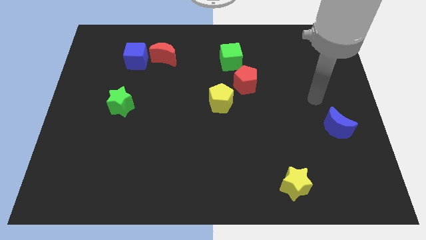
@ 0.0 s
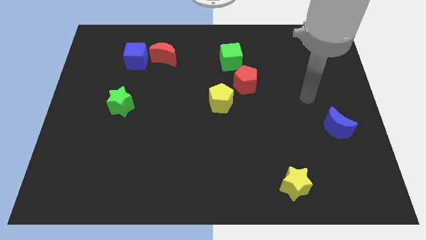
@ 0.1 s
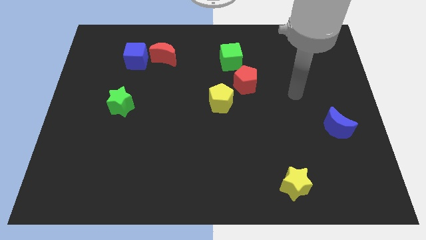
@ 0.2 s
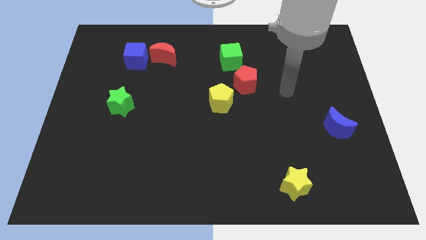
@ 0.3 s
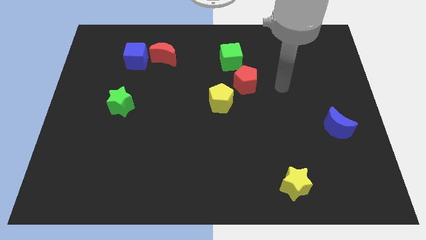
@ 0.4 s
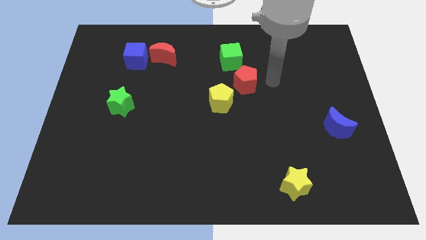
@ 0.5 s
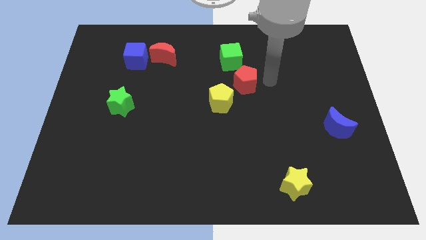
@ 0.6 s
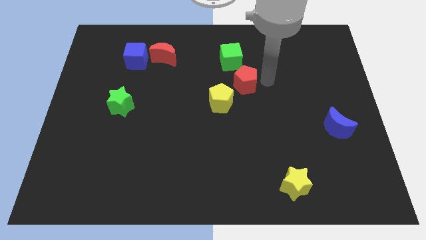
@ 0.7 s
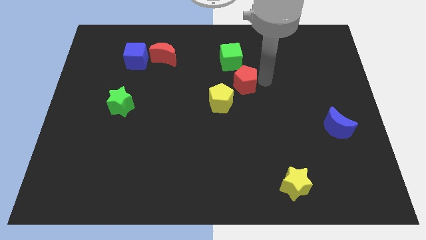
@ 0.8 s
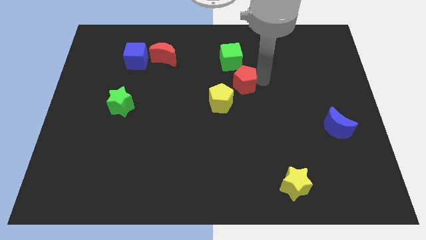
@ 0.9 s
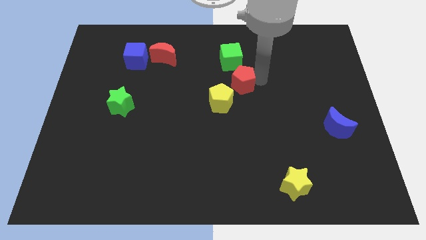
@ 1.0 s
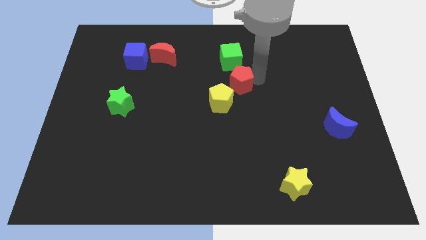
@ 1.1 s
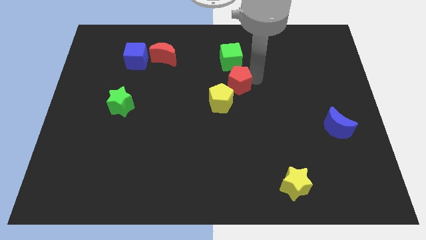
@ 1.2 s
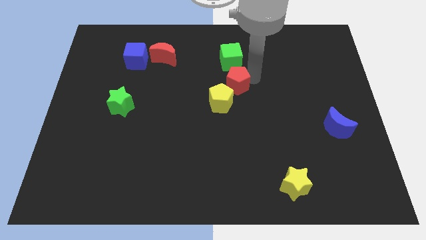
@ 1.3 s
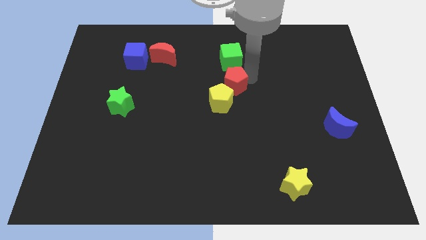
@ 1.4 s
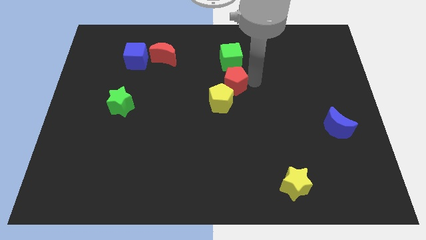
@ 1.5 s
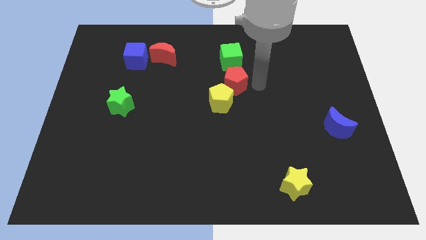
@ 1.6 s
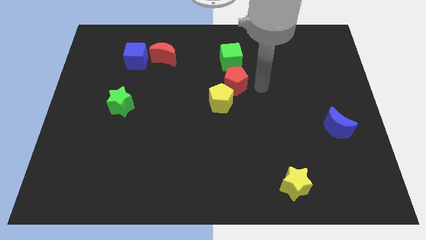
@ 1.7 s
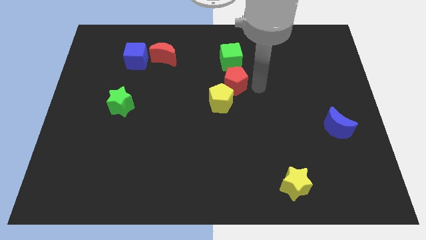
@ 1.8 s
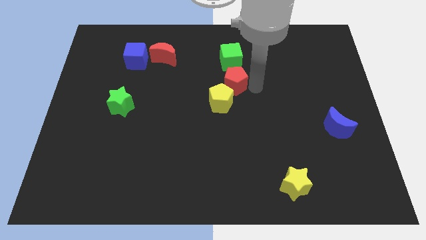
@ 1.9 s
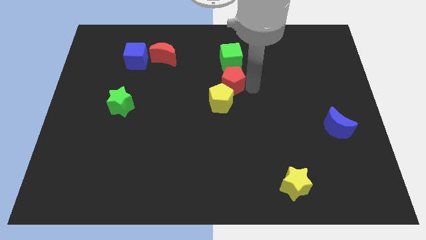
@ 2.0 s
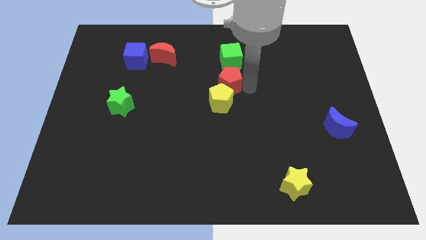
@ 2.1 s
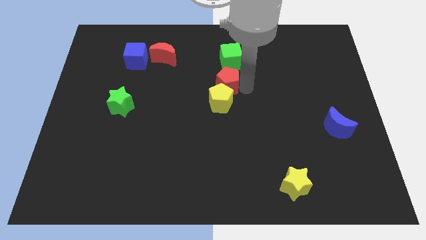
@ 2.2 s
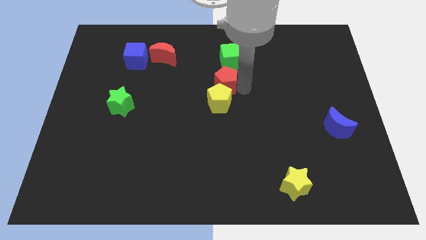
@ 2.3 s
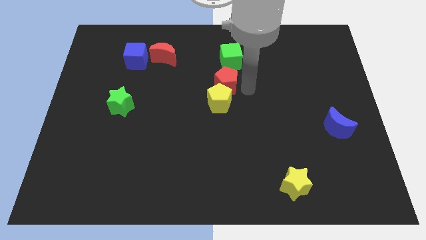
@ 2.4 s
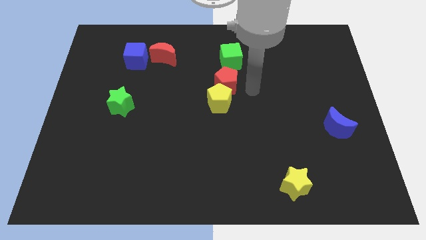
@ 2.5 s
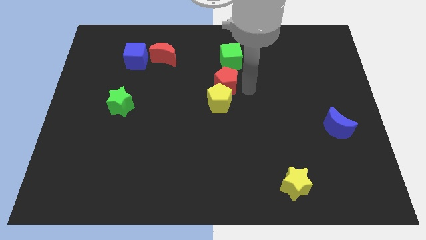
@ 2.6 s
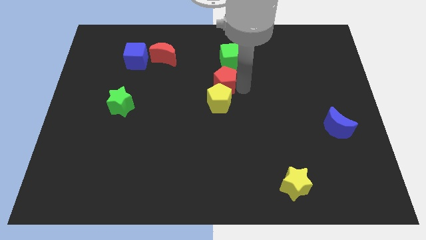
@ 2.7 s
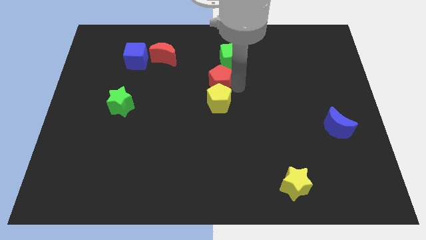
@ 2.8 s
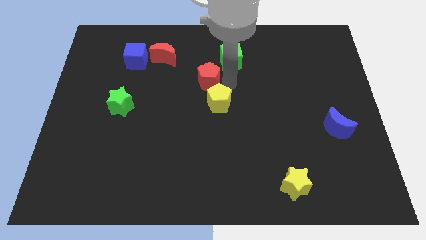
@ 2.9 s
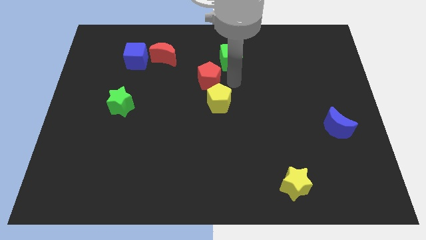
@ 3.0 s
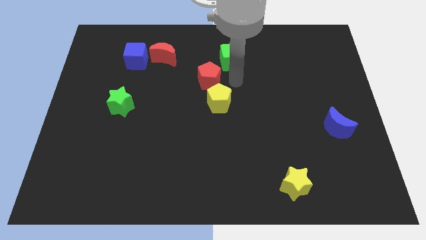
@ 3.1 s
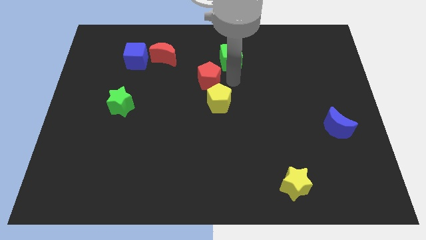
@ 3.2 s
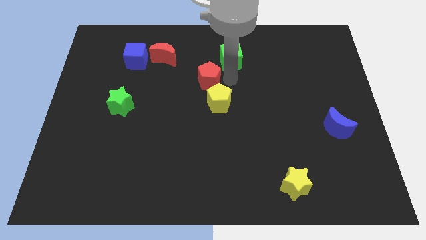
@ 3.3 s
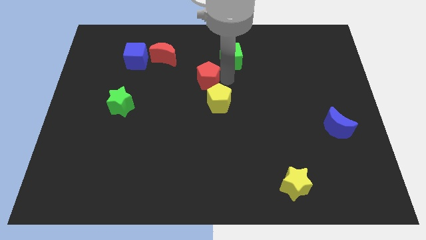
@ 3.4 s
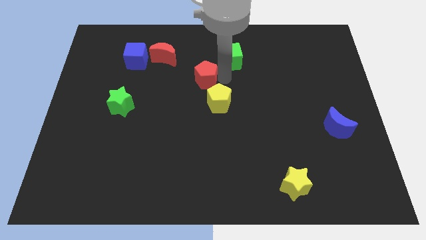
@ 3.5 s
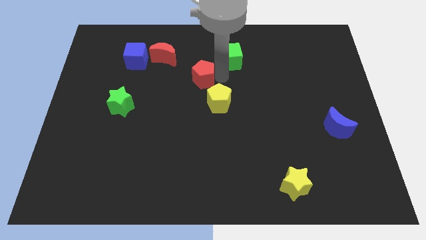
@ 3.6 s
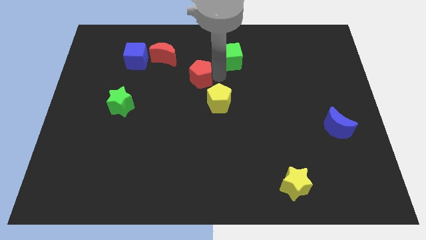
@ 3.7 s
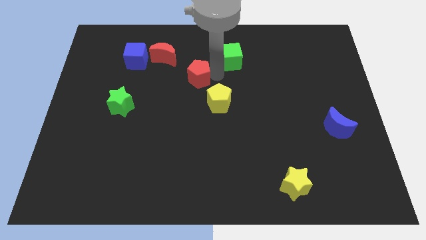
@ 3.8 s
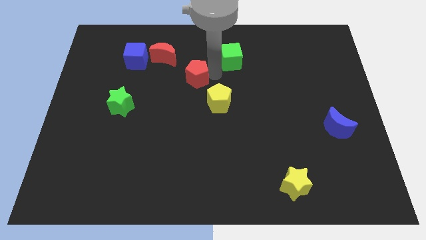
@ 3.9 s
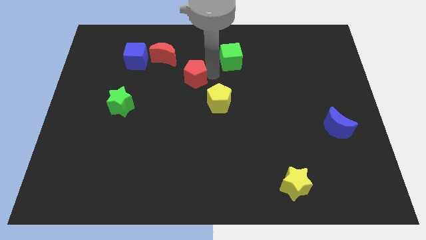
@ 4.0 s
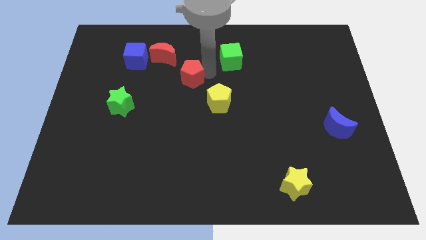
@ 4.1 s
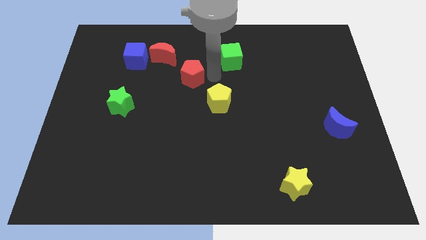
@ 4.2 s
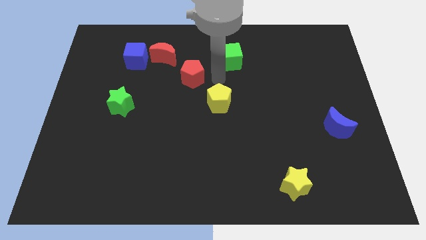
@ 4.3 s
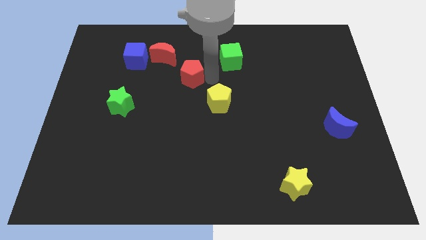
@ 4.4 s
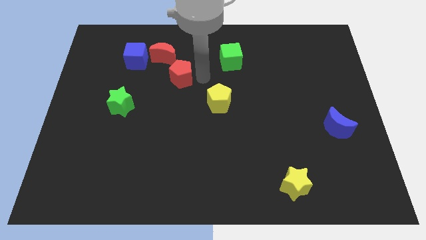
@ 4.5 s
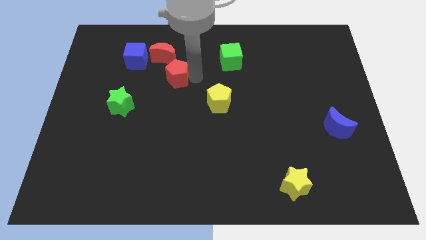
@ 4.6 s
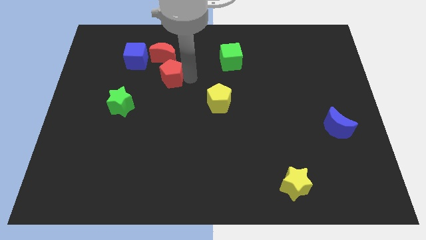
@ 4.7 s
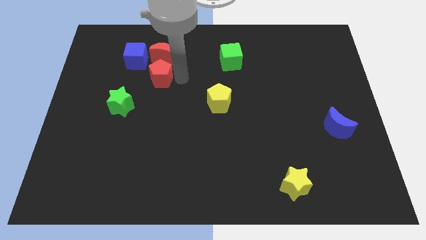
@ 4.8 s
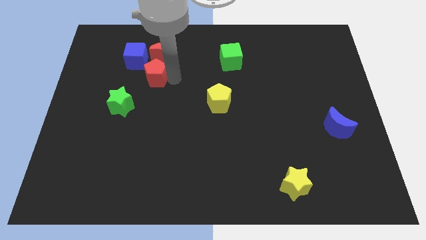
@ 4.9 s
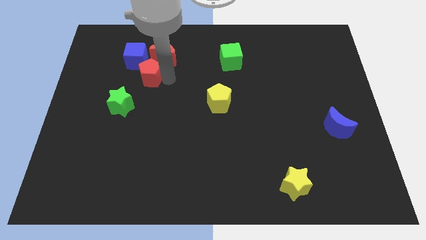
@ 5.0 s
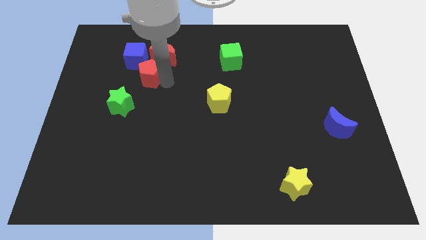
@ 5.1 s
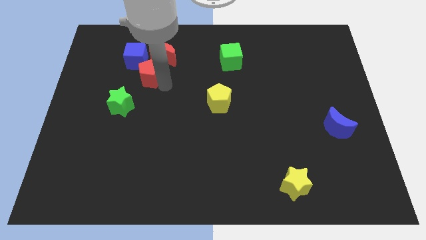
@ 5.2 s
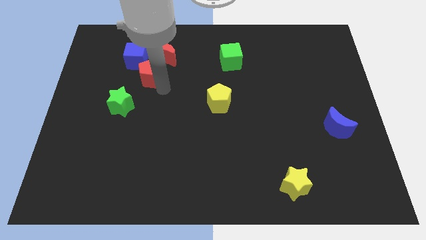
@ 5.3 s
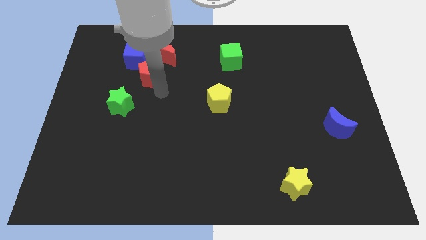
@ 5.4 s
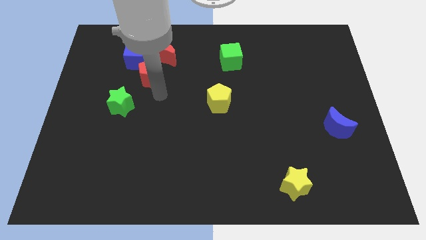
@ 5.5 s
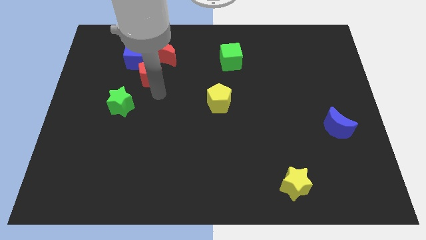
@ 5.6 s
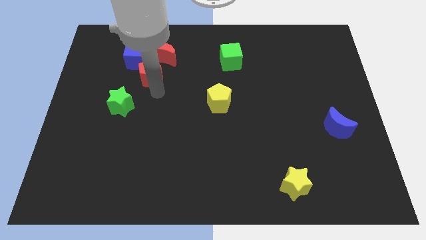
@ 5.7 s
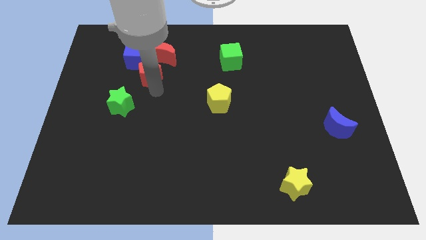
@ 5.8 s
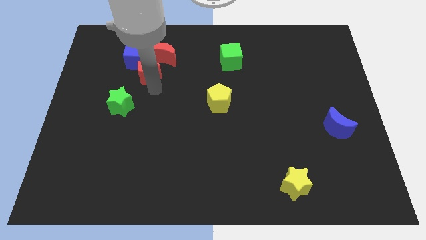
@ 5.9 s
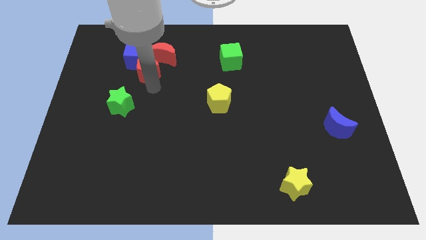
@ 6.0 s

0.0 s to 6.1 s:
push the red pentagon towards the blue cube
